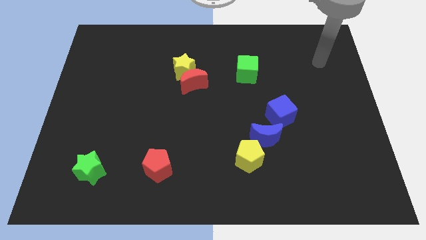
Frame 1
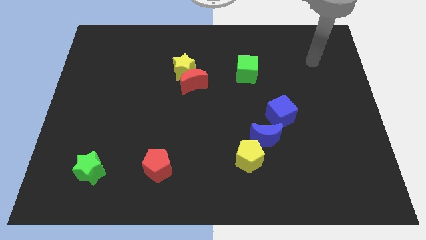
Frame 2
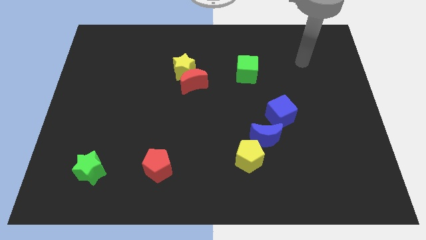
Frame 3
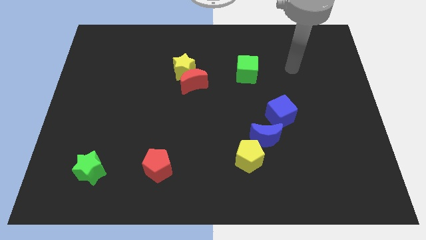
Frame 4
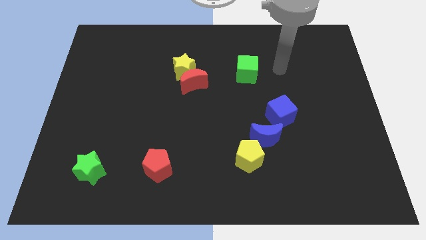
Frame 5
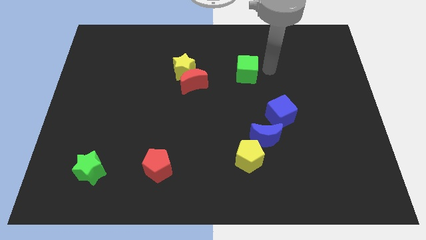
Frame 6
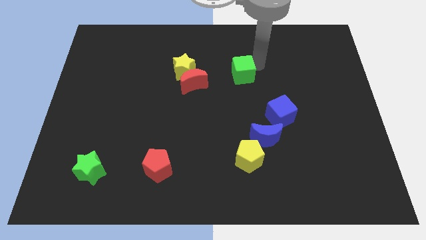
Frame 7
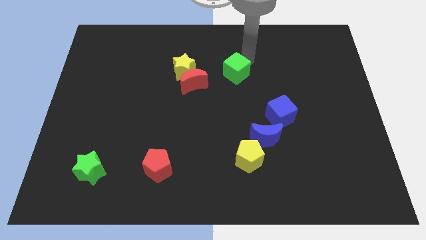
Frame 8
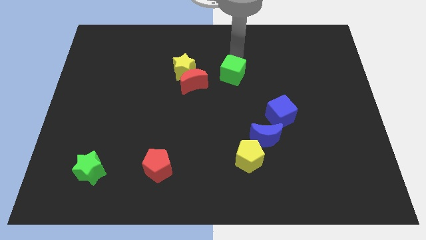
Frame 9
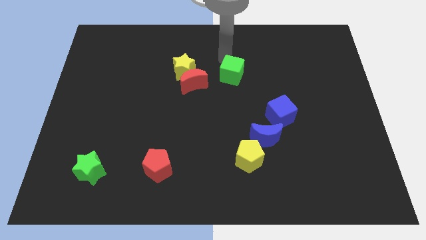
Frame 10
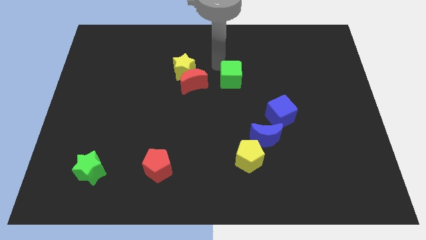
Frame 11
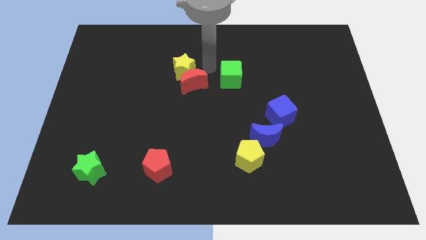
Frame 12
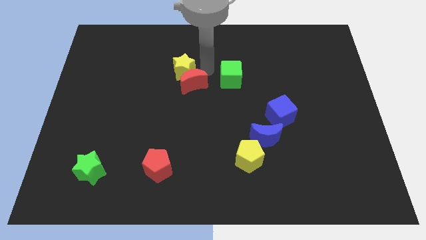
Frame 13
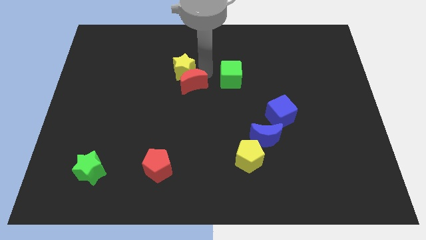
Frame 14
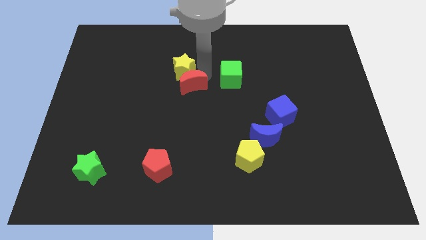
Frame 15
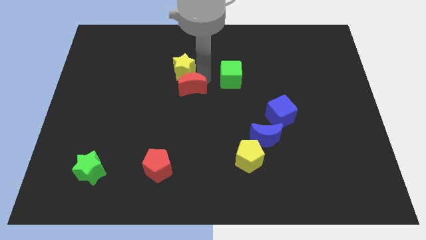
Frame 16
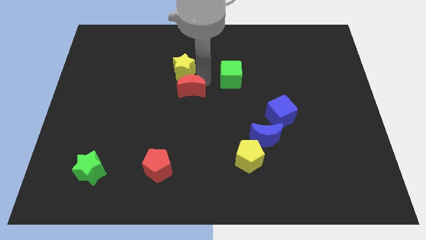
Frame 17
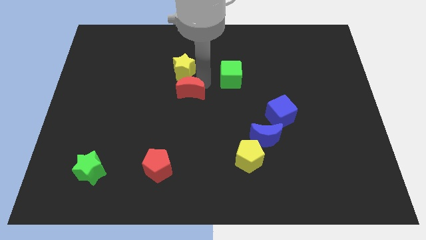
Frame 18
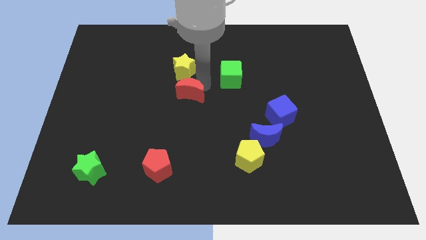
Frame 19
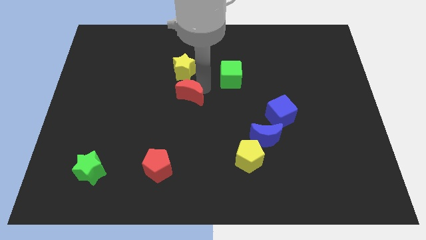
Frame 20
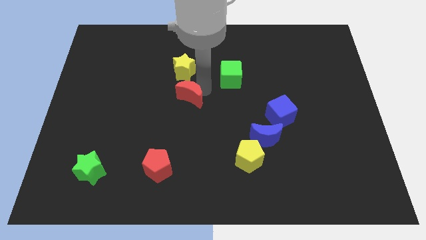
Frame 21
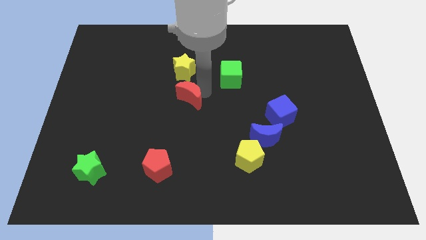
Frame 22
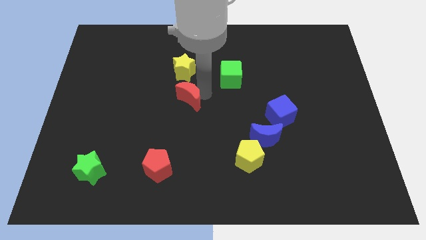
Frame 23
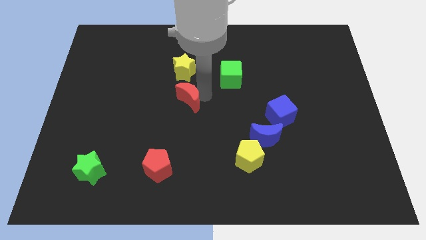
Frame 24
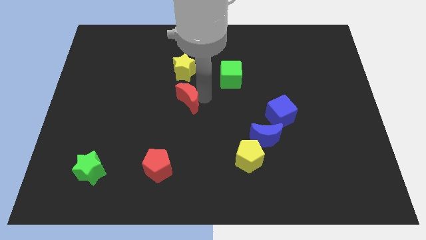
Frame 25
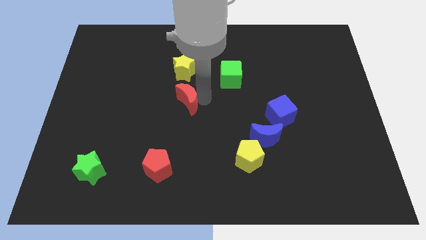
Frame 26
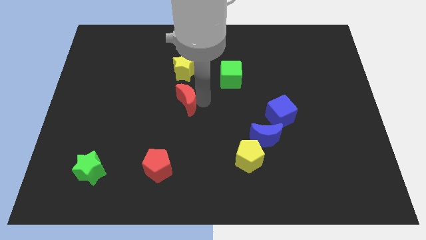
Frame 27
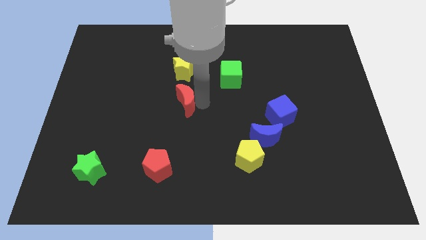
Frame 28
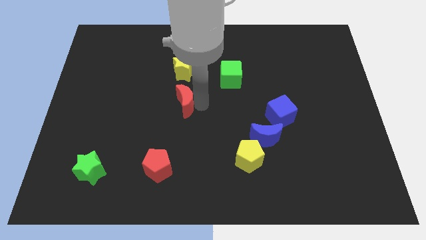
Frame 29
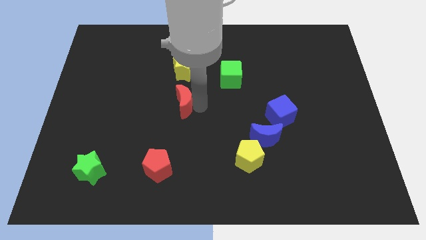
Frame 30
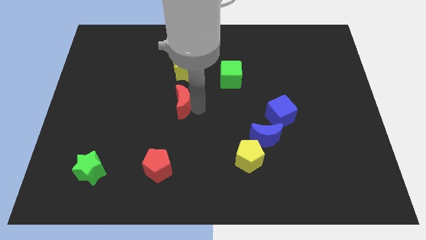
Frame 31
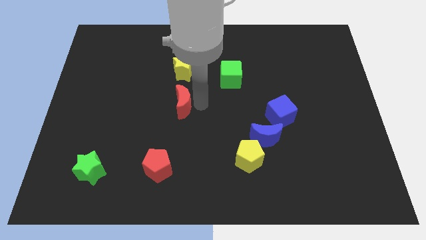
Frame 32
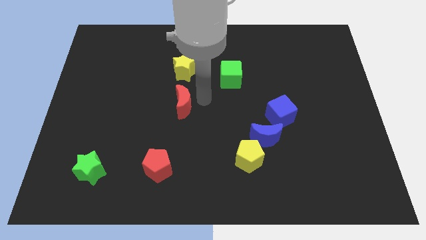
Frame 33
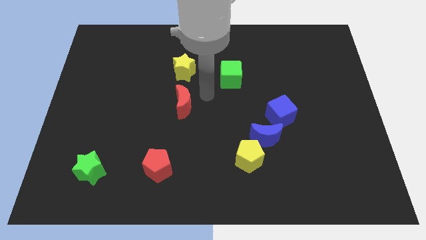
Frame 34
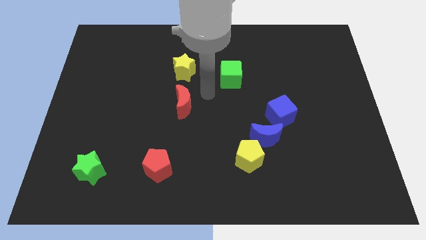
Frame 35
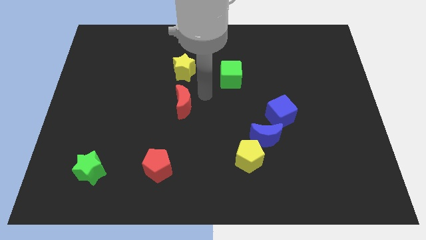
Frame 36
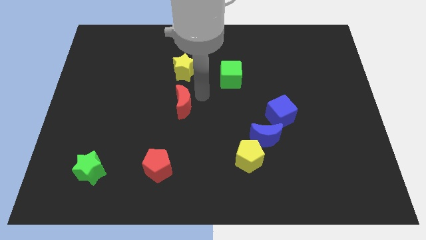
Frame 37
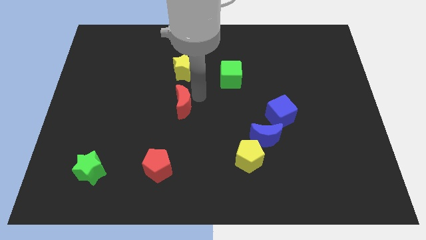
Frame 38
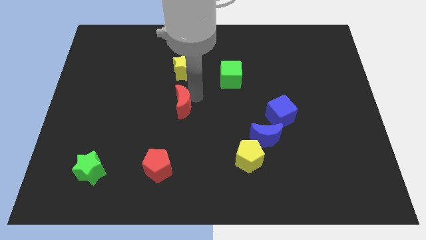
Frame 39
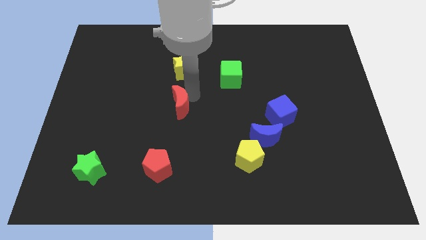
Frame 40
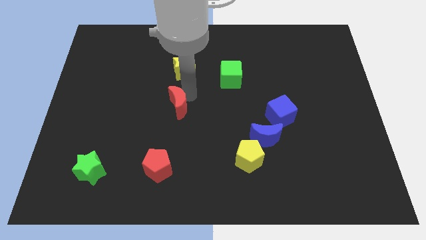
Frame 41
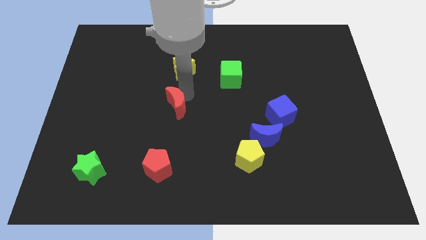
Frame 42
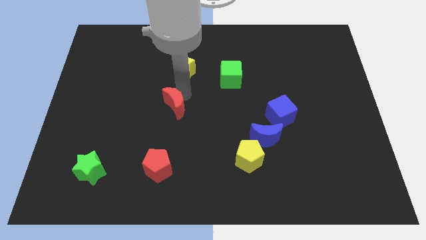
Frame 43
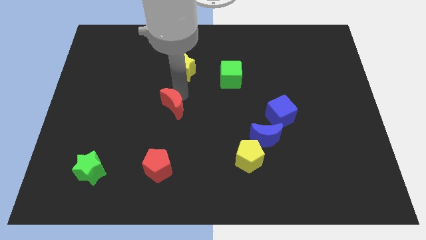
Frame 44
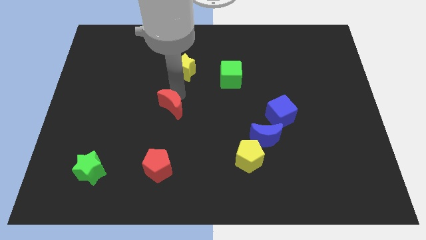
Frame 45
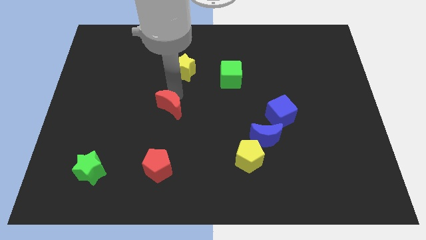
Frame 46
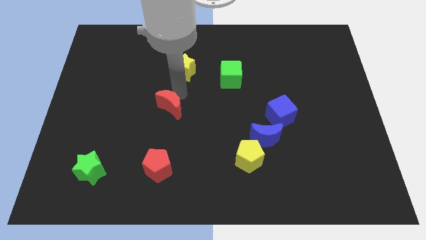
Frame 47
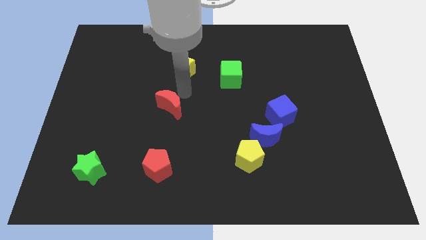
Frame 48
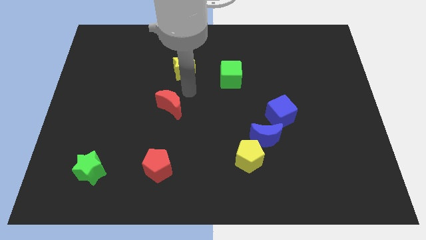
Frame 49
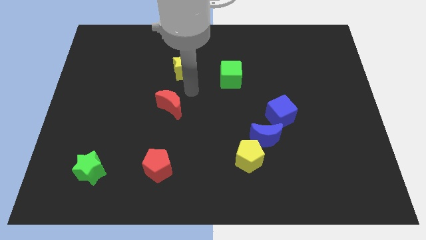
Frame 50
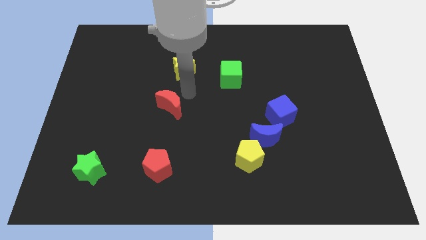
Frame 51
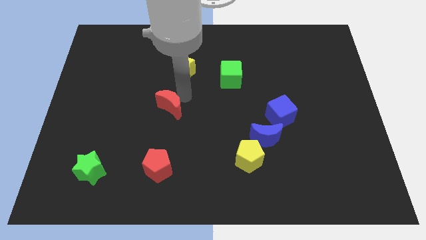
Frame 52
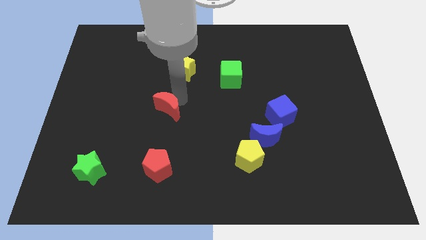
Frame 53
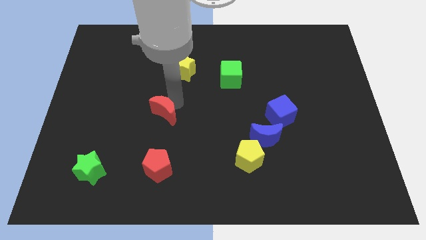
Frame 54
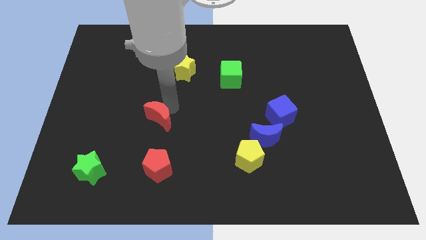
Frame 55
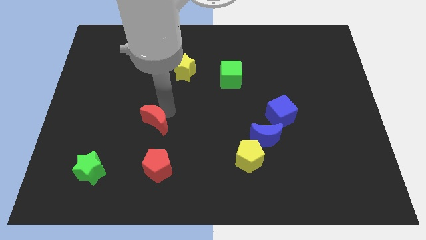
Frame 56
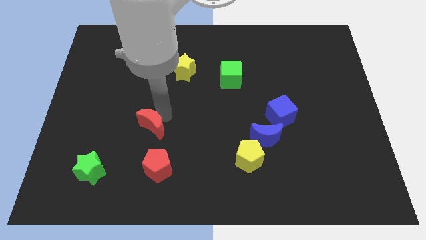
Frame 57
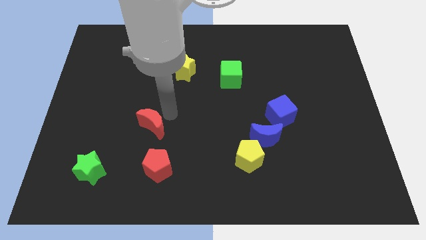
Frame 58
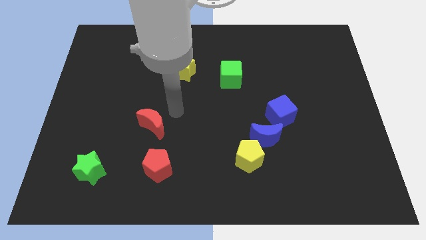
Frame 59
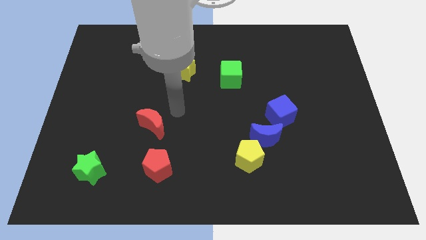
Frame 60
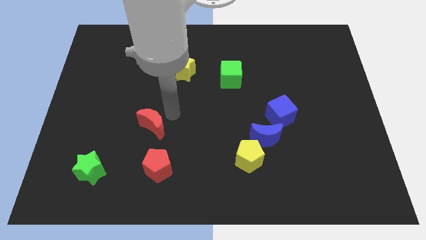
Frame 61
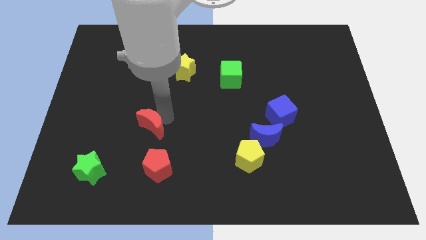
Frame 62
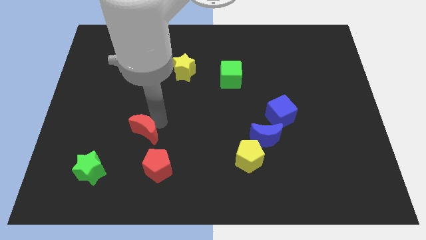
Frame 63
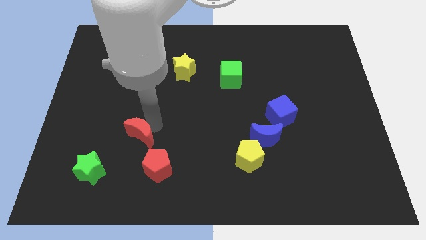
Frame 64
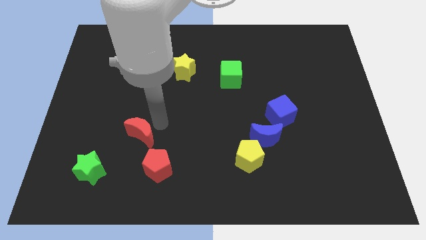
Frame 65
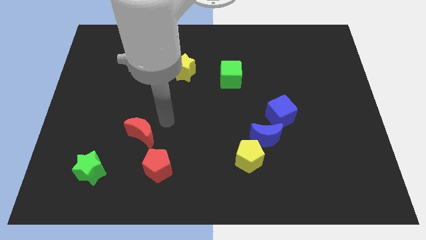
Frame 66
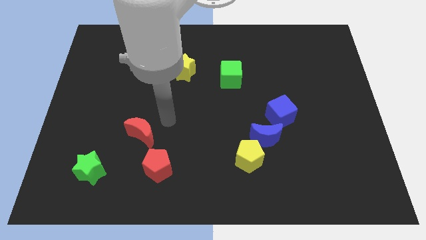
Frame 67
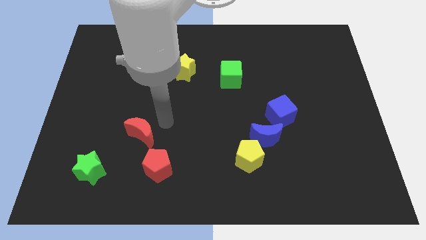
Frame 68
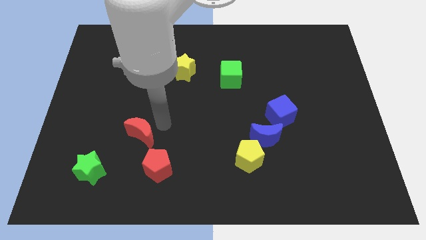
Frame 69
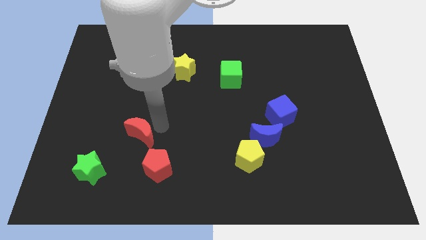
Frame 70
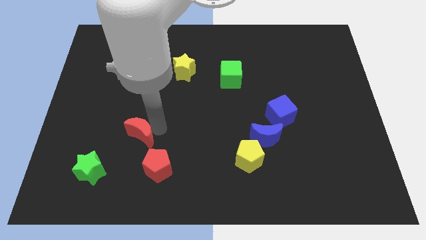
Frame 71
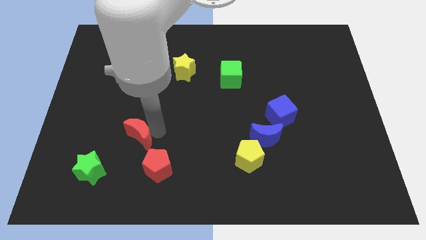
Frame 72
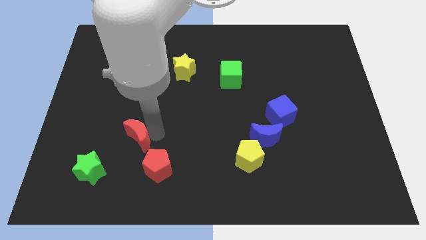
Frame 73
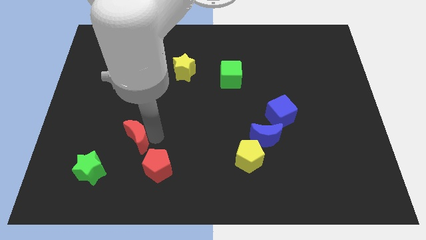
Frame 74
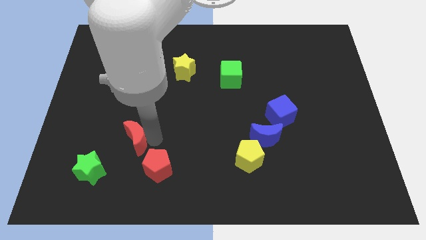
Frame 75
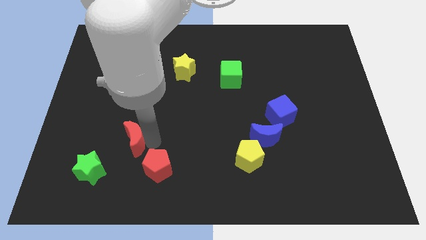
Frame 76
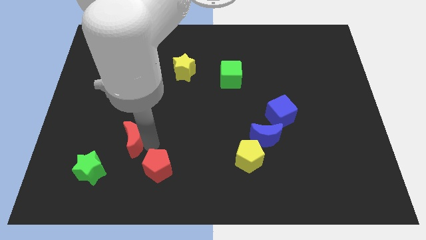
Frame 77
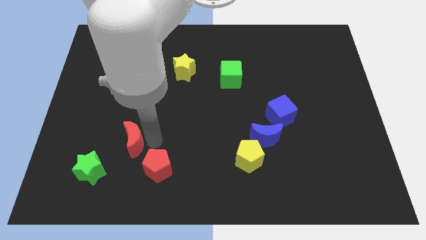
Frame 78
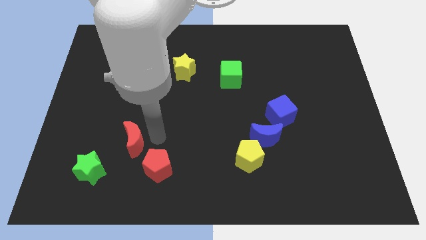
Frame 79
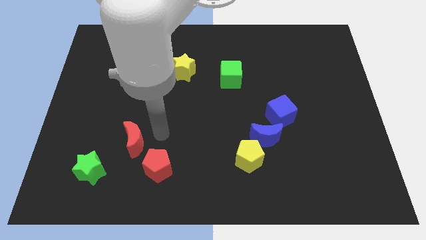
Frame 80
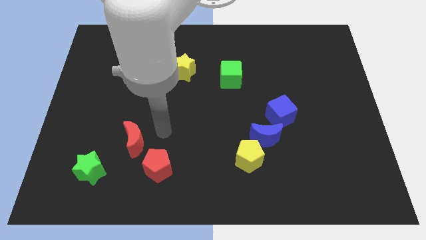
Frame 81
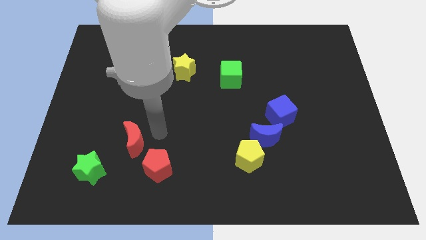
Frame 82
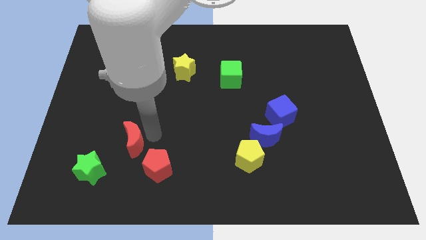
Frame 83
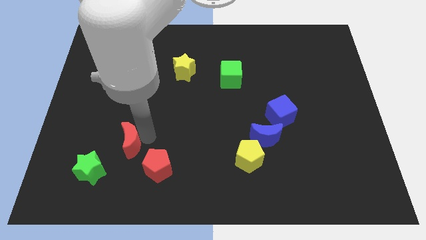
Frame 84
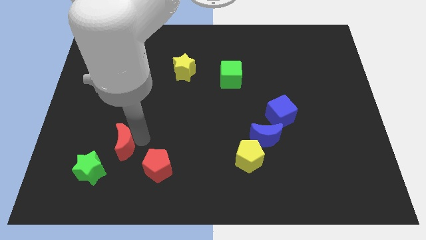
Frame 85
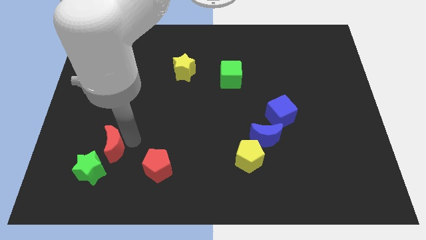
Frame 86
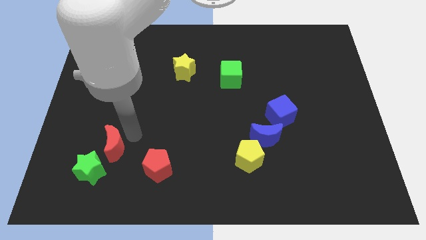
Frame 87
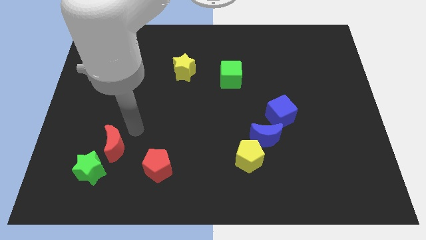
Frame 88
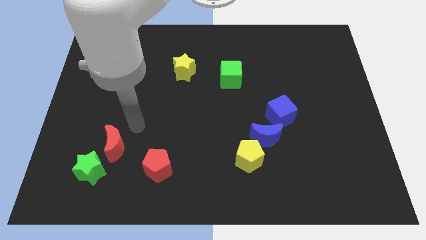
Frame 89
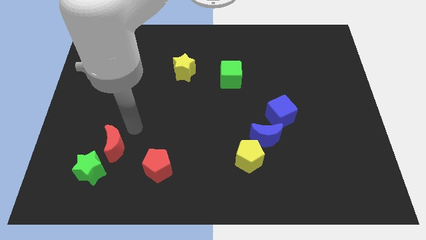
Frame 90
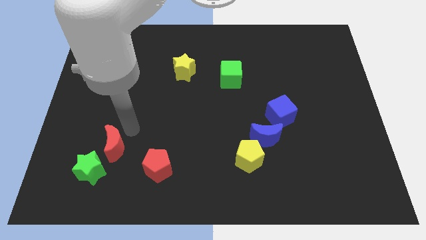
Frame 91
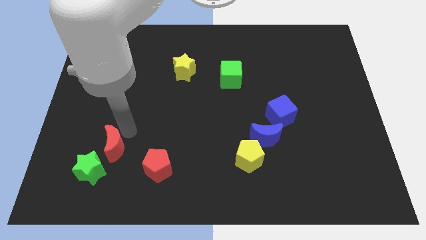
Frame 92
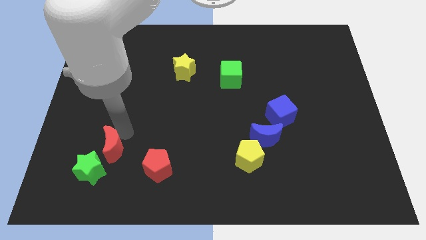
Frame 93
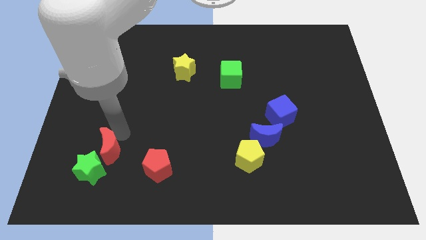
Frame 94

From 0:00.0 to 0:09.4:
slide the red moon towards the green star
